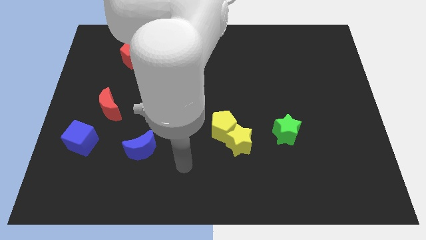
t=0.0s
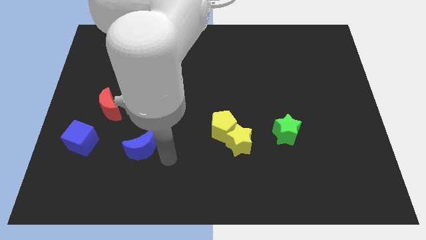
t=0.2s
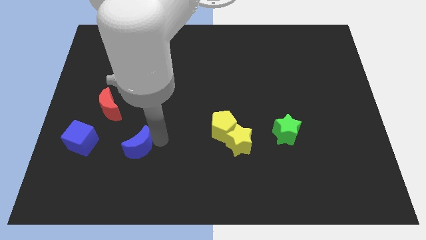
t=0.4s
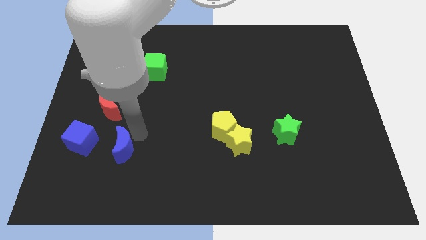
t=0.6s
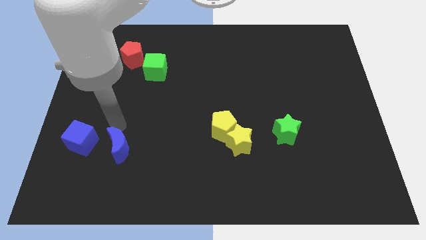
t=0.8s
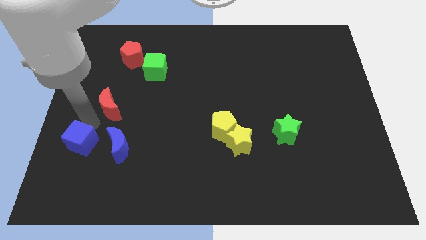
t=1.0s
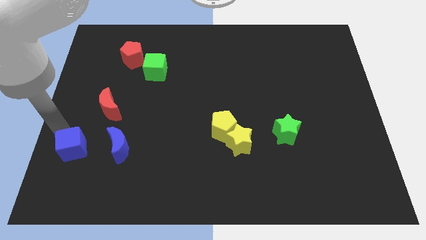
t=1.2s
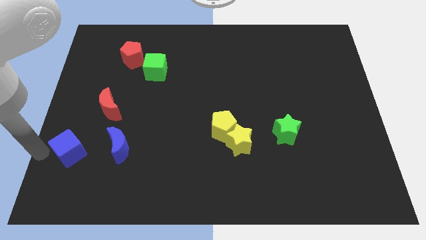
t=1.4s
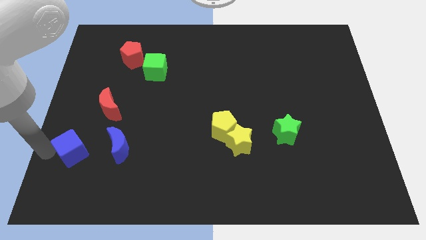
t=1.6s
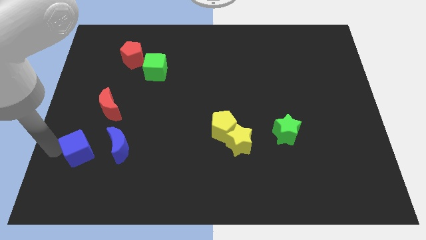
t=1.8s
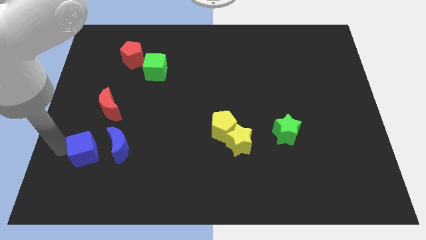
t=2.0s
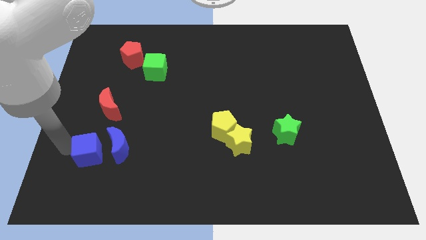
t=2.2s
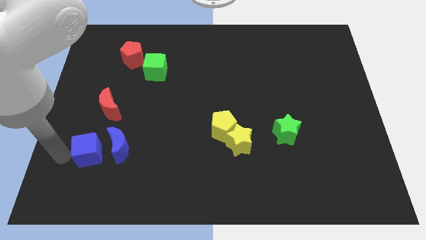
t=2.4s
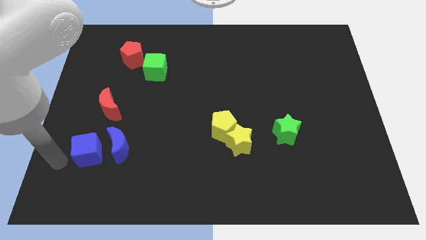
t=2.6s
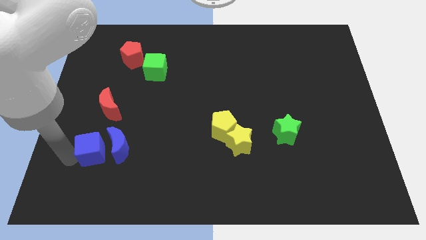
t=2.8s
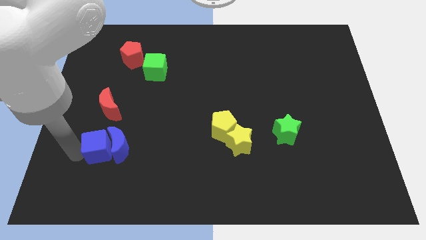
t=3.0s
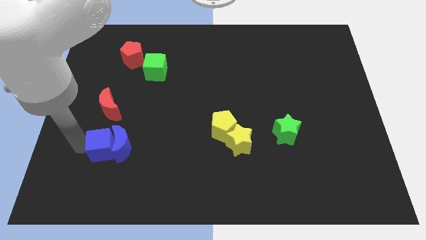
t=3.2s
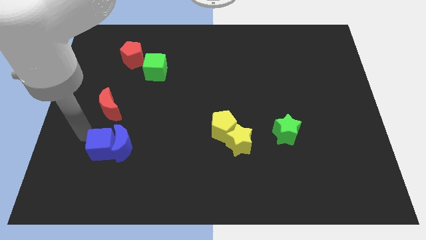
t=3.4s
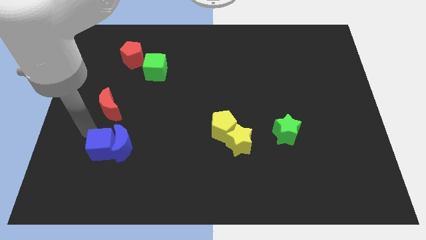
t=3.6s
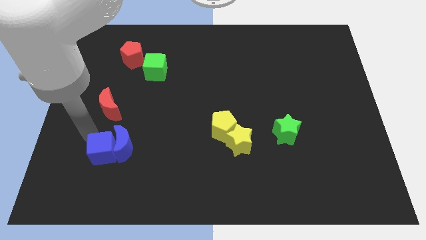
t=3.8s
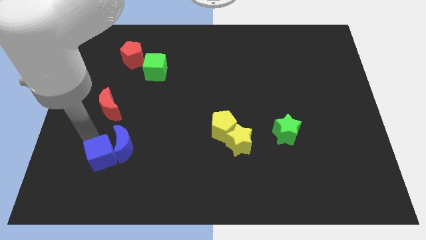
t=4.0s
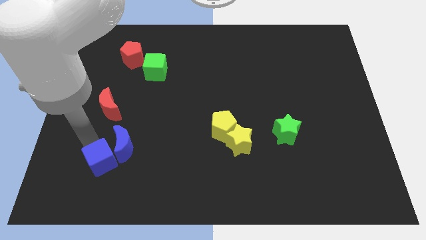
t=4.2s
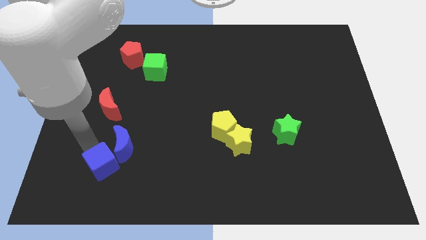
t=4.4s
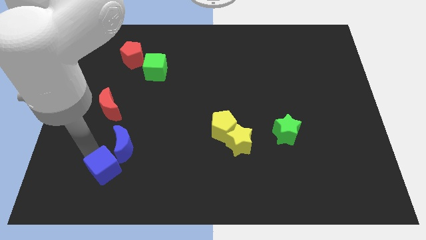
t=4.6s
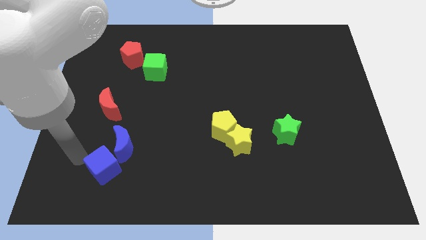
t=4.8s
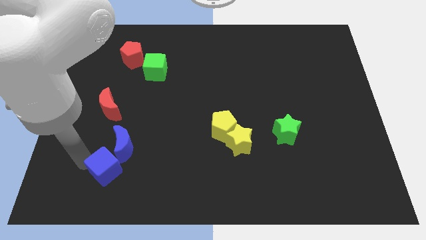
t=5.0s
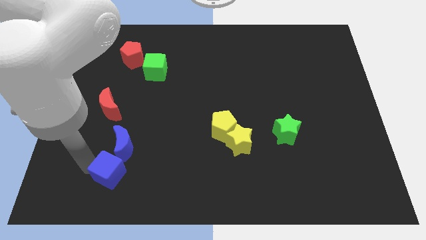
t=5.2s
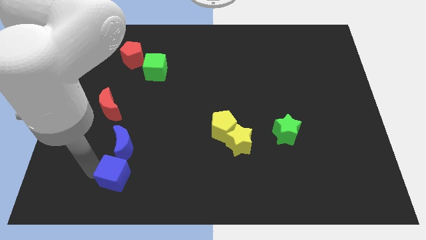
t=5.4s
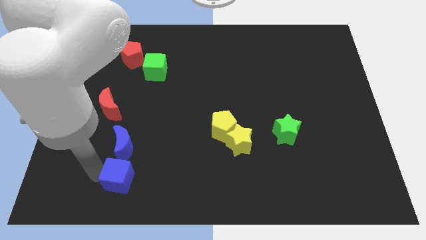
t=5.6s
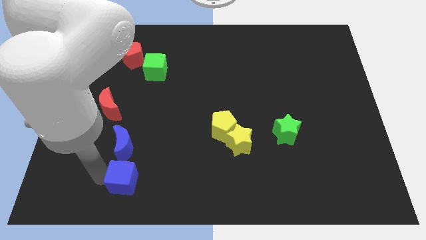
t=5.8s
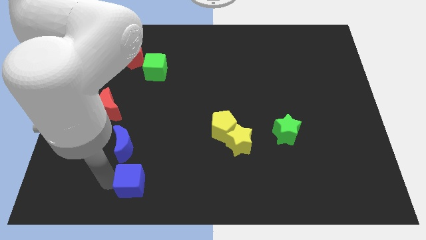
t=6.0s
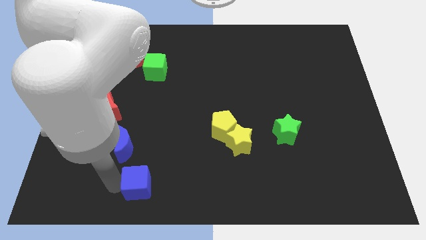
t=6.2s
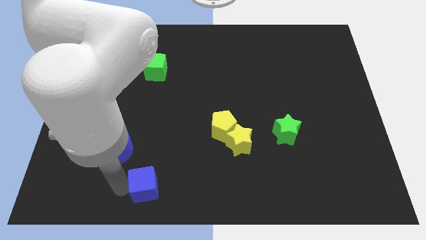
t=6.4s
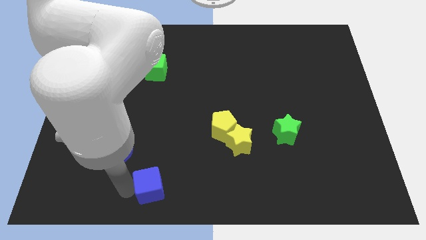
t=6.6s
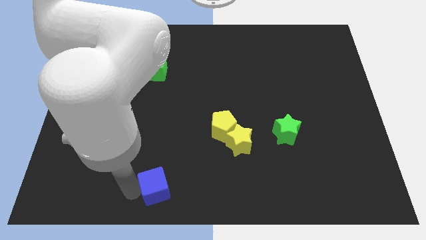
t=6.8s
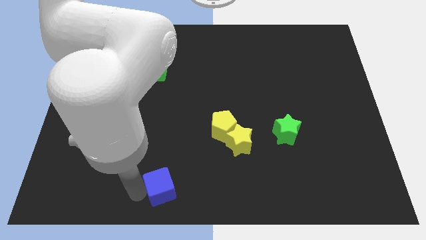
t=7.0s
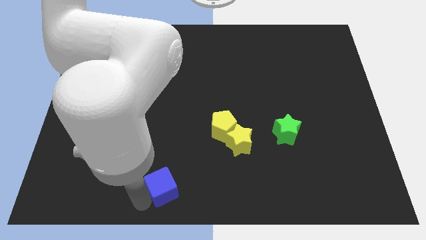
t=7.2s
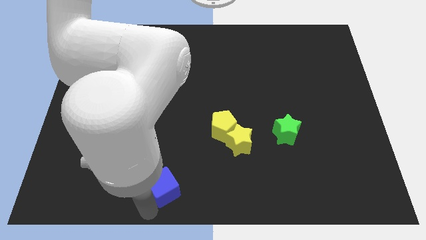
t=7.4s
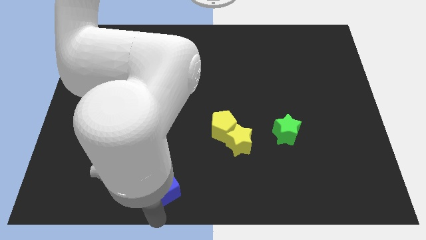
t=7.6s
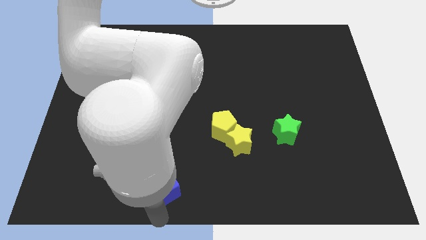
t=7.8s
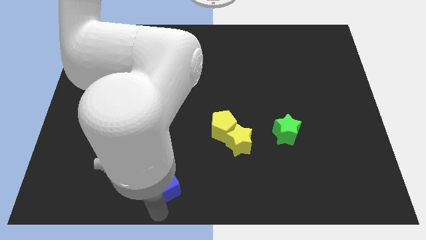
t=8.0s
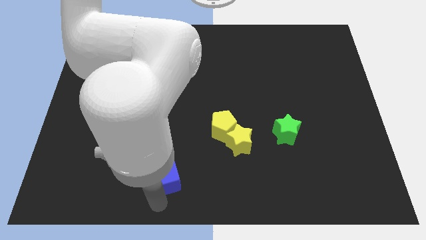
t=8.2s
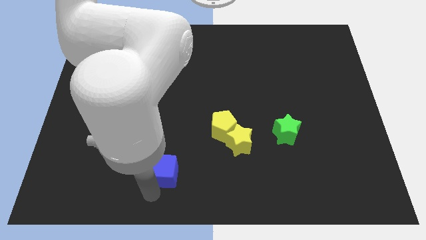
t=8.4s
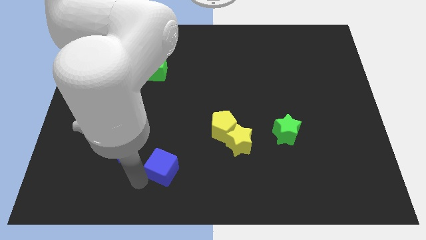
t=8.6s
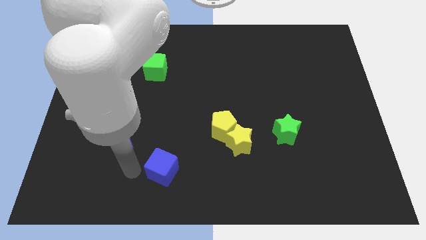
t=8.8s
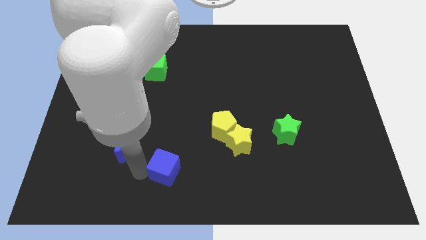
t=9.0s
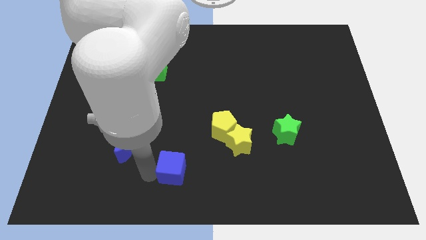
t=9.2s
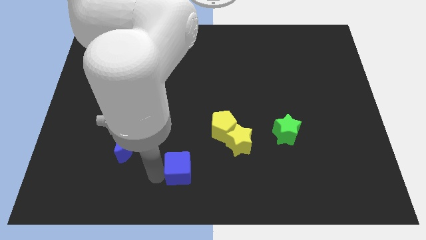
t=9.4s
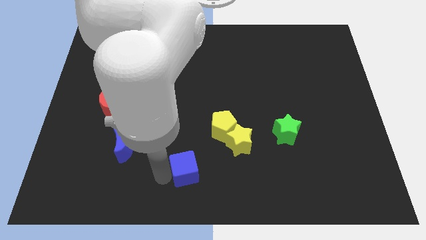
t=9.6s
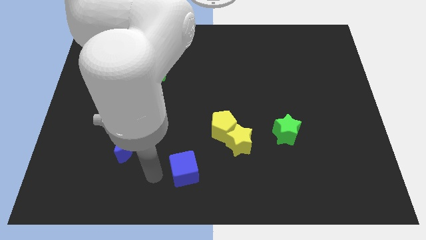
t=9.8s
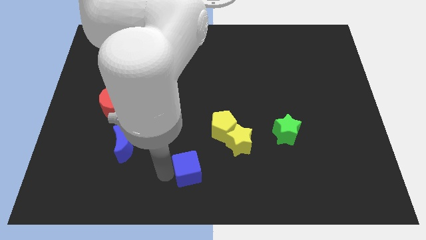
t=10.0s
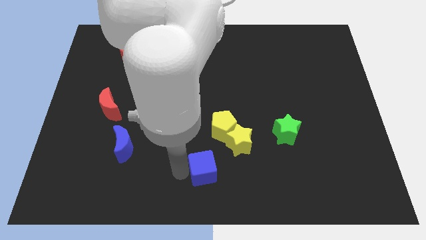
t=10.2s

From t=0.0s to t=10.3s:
slide the blue cube to the bottom of the yellow pentagon
